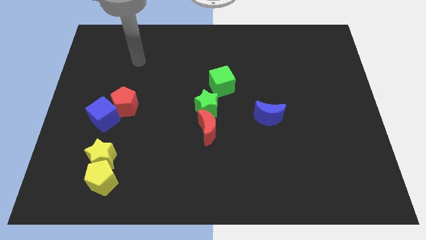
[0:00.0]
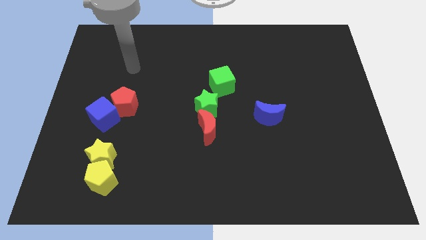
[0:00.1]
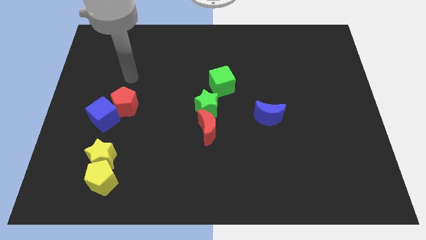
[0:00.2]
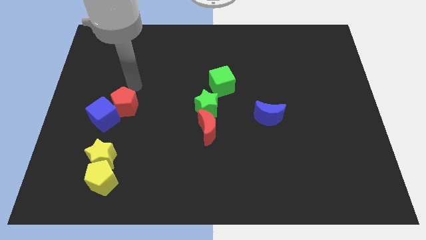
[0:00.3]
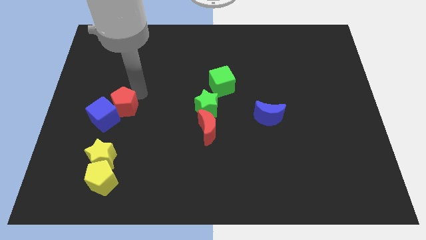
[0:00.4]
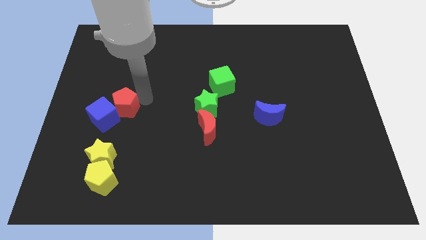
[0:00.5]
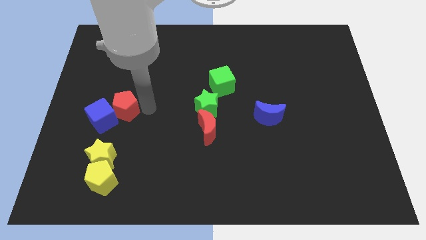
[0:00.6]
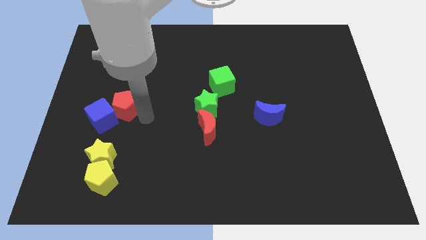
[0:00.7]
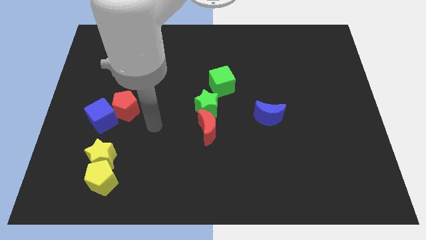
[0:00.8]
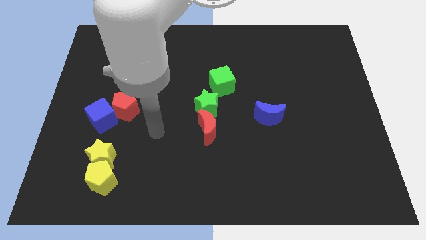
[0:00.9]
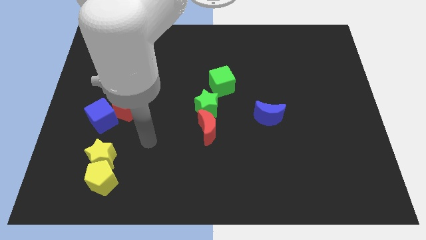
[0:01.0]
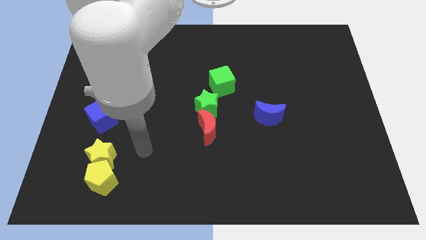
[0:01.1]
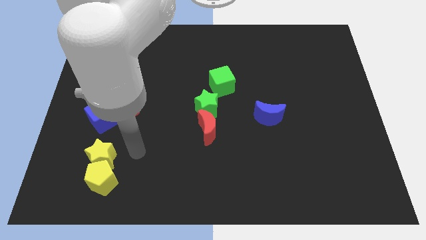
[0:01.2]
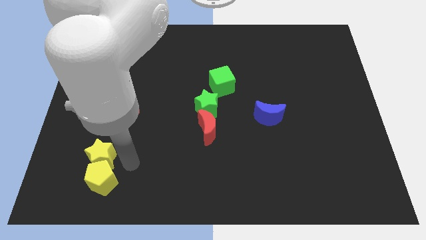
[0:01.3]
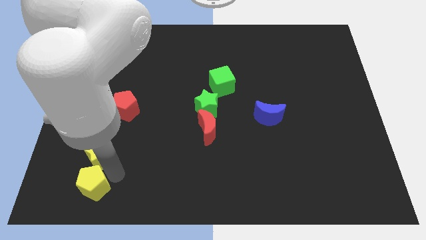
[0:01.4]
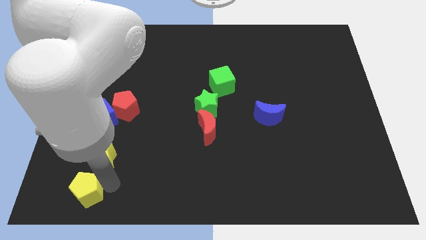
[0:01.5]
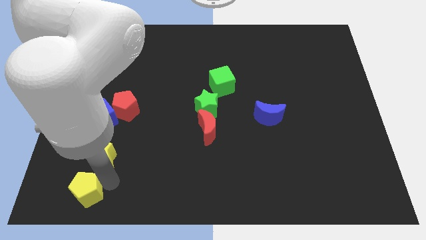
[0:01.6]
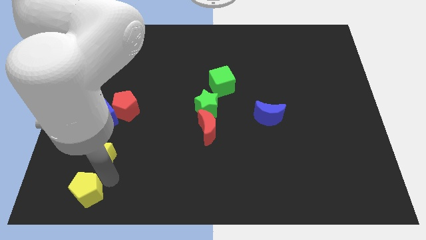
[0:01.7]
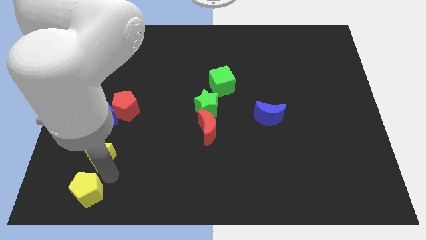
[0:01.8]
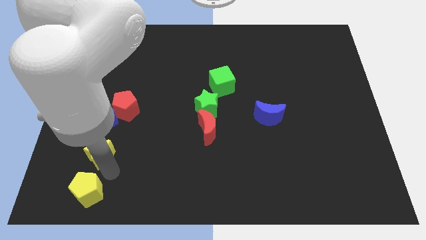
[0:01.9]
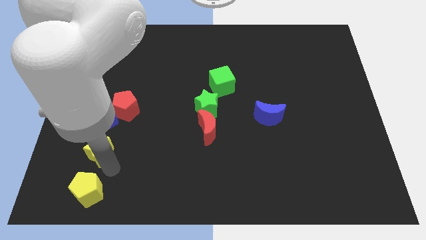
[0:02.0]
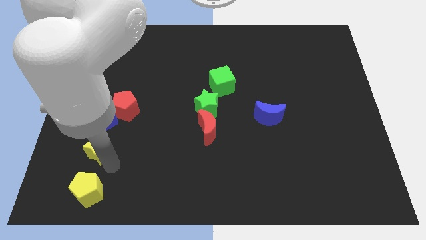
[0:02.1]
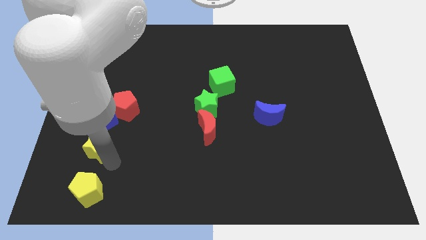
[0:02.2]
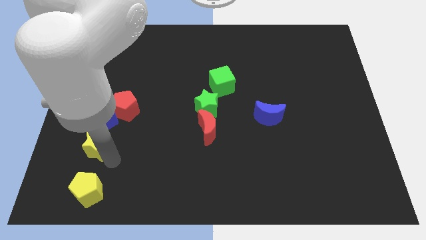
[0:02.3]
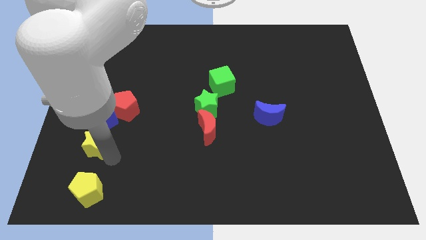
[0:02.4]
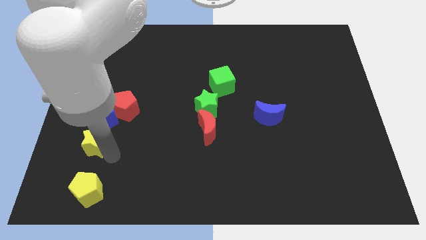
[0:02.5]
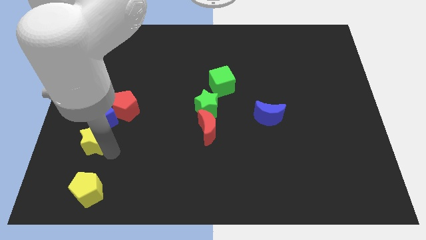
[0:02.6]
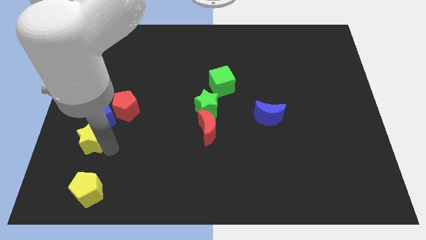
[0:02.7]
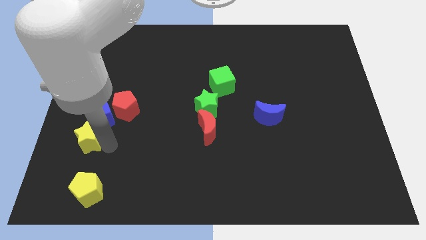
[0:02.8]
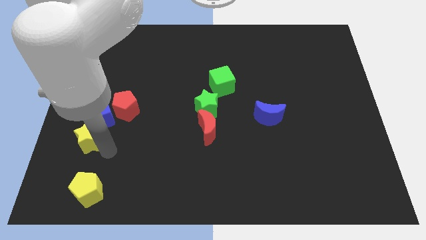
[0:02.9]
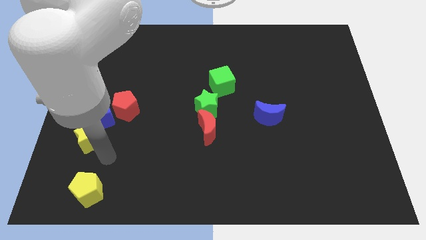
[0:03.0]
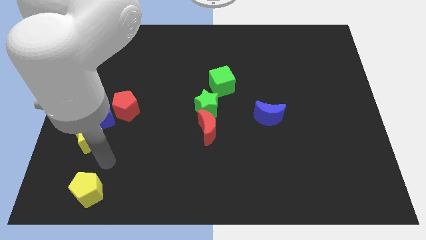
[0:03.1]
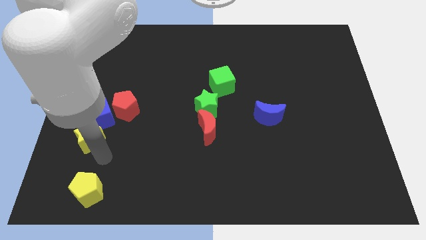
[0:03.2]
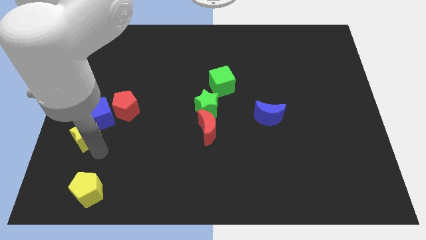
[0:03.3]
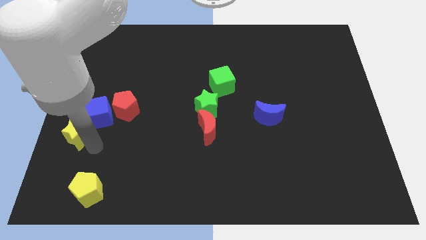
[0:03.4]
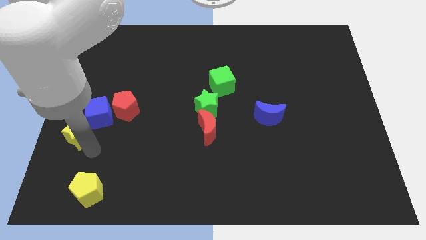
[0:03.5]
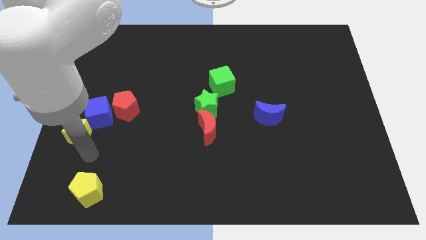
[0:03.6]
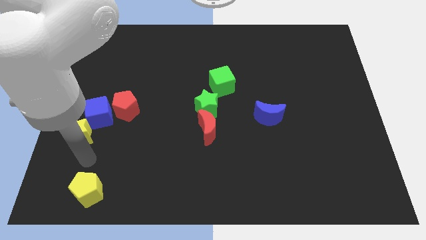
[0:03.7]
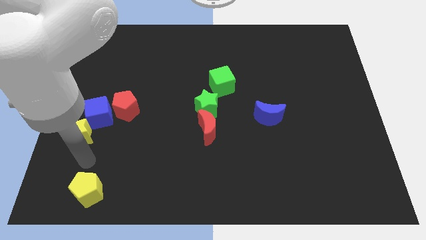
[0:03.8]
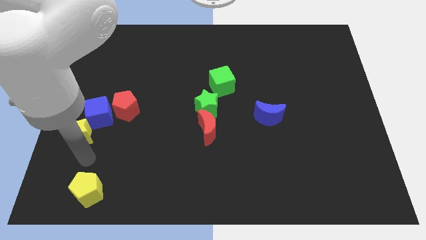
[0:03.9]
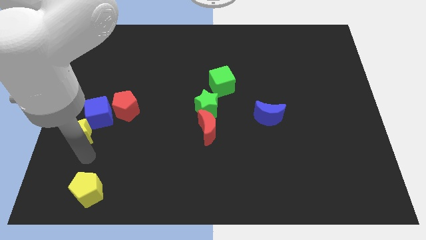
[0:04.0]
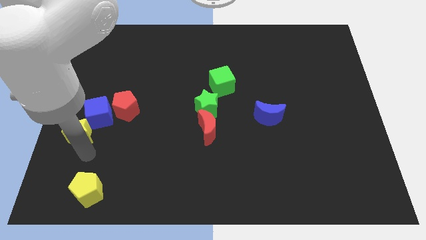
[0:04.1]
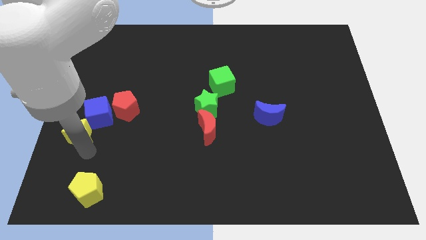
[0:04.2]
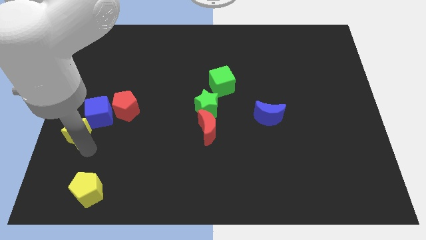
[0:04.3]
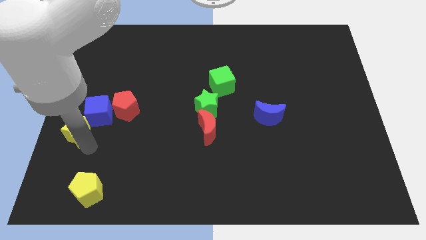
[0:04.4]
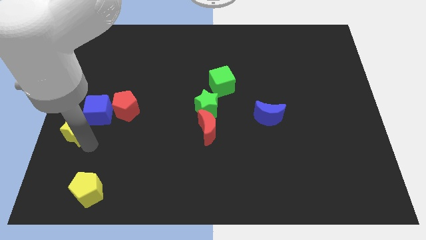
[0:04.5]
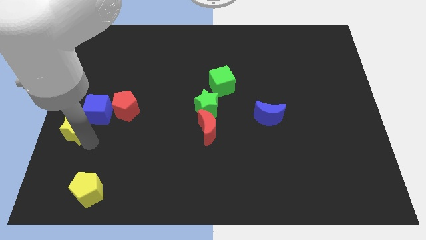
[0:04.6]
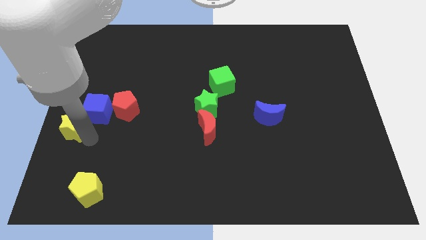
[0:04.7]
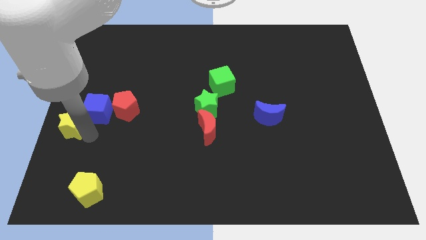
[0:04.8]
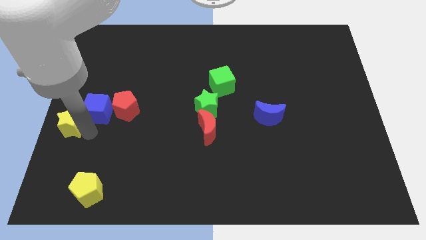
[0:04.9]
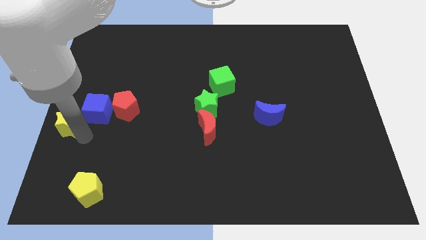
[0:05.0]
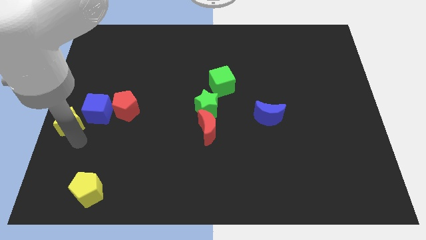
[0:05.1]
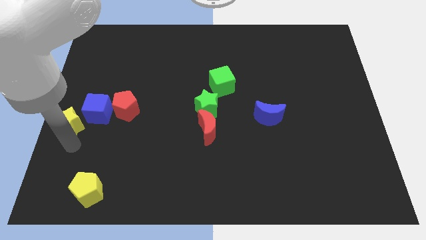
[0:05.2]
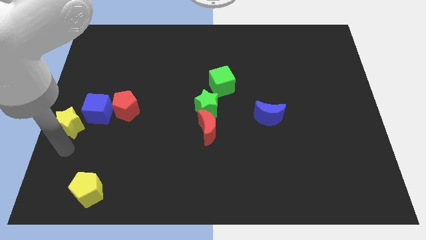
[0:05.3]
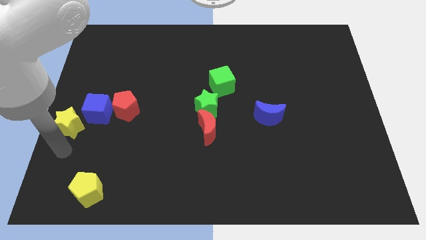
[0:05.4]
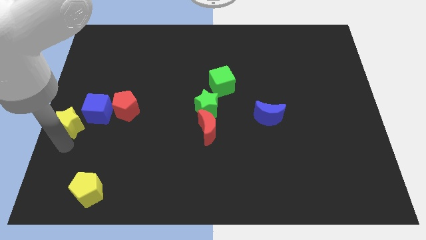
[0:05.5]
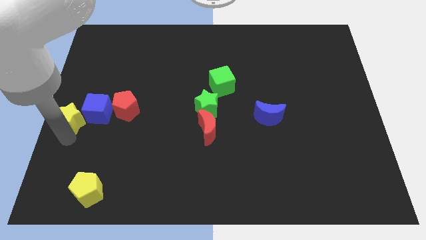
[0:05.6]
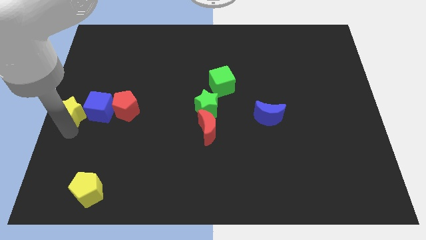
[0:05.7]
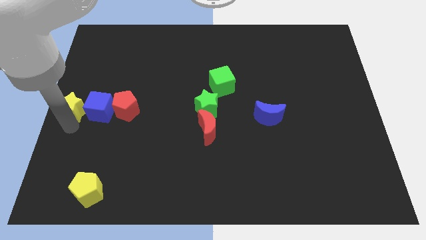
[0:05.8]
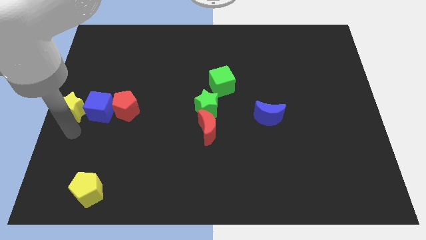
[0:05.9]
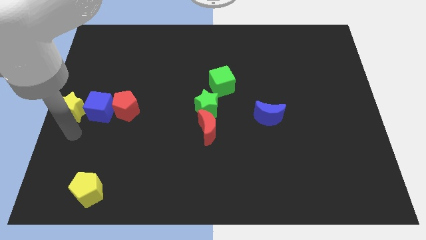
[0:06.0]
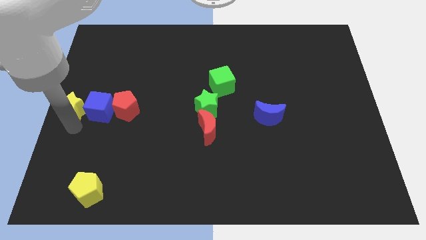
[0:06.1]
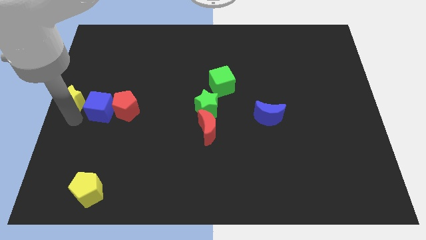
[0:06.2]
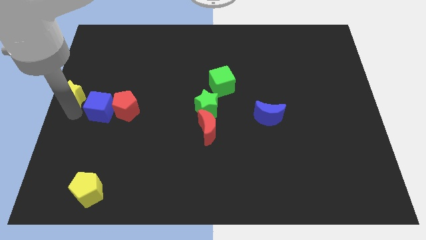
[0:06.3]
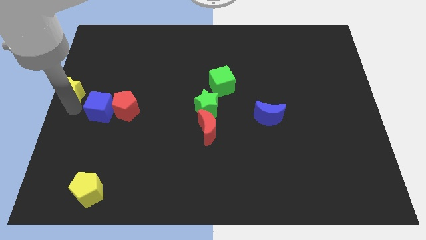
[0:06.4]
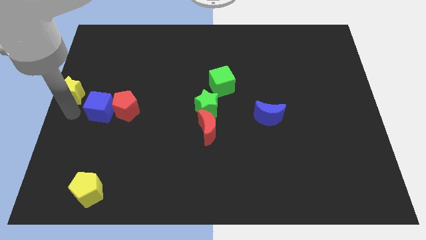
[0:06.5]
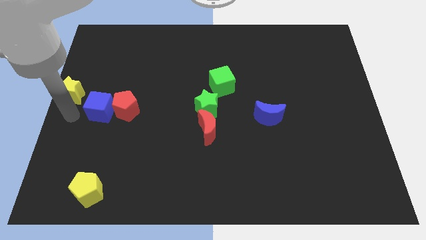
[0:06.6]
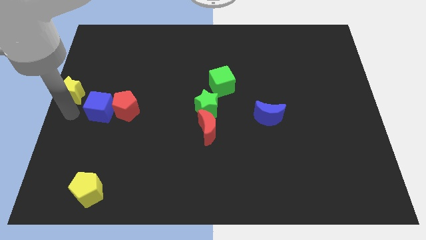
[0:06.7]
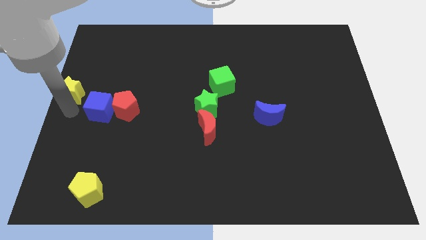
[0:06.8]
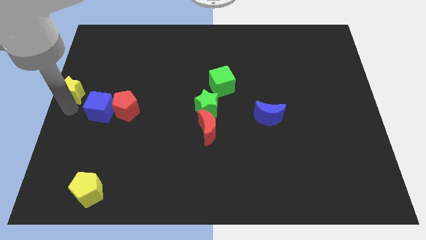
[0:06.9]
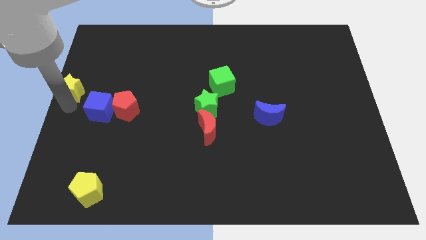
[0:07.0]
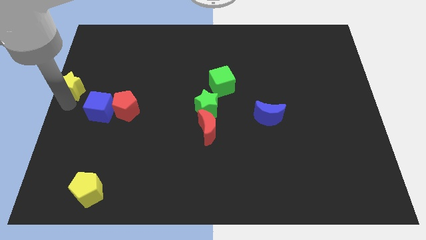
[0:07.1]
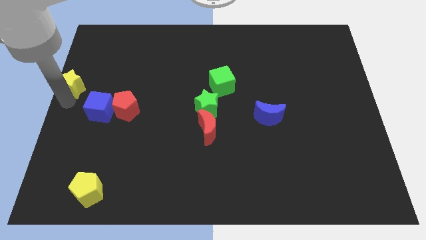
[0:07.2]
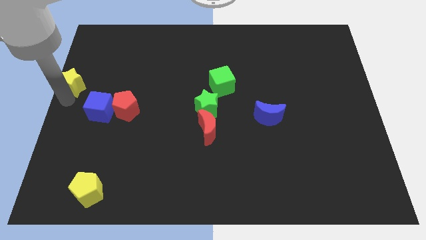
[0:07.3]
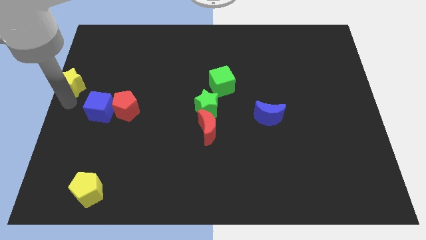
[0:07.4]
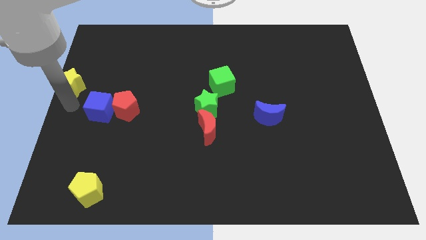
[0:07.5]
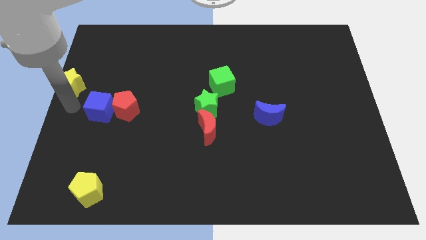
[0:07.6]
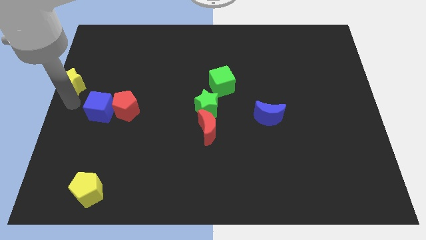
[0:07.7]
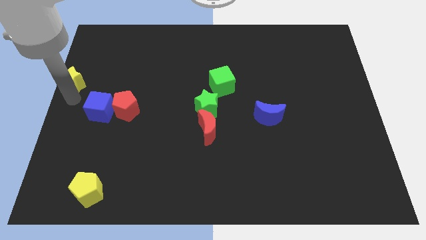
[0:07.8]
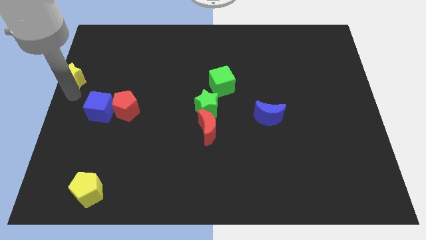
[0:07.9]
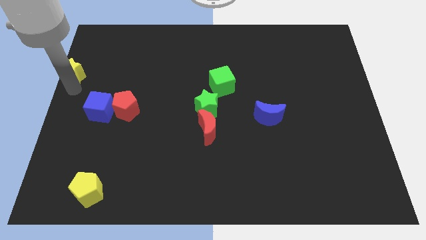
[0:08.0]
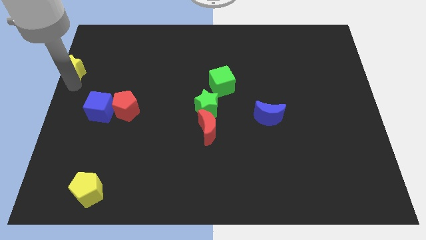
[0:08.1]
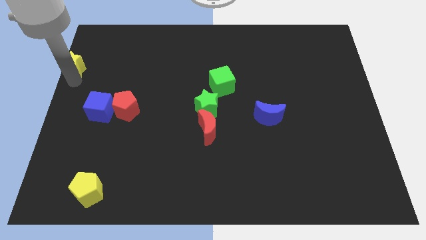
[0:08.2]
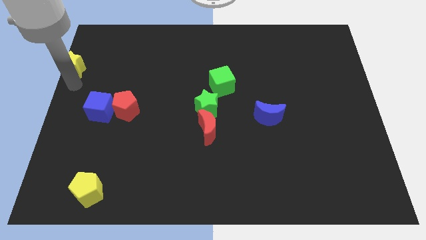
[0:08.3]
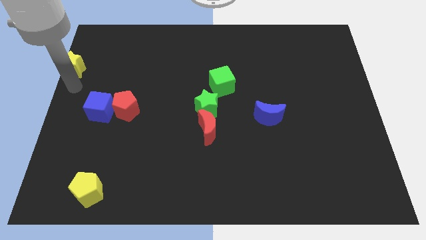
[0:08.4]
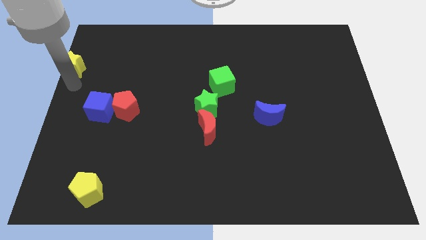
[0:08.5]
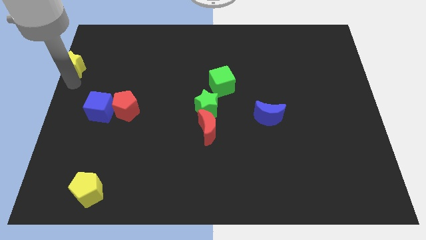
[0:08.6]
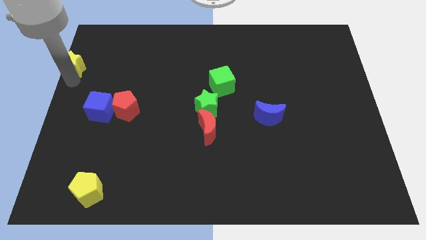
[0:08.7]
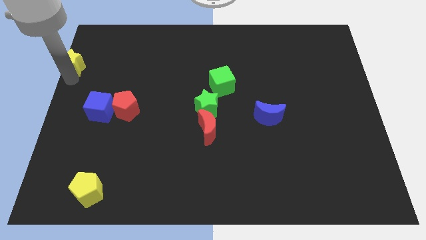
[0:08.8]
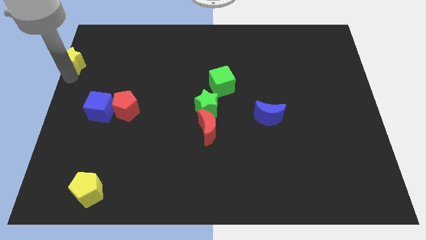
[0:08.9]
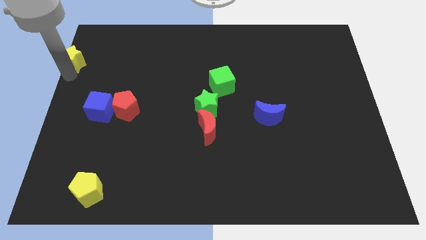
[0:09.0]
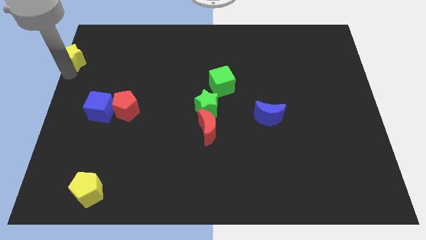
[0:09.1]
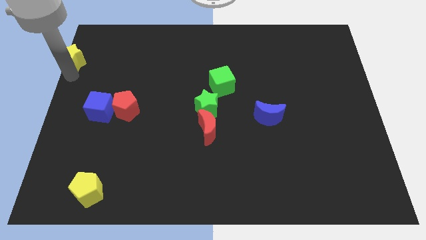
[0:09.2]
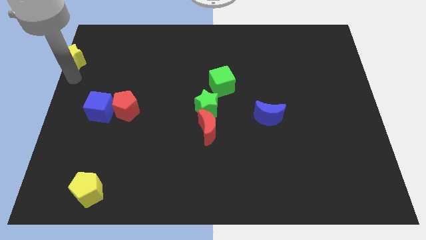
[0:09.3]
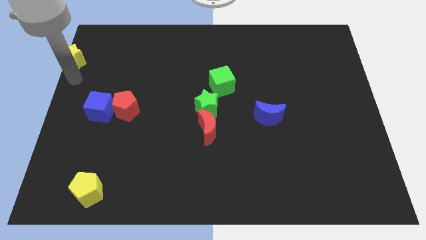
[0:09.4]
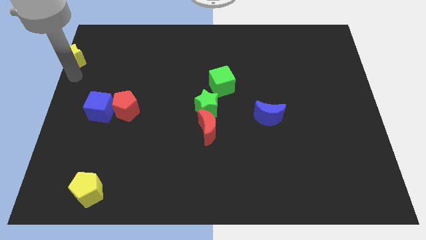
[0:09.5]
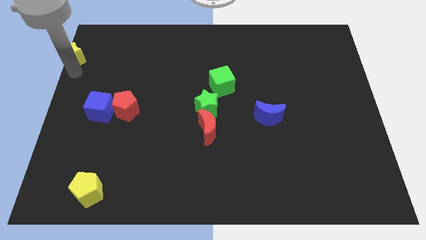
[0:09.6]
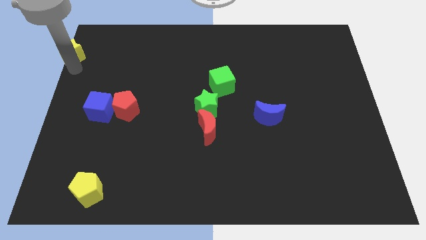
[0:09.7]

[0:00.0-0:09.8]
put the yellow star to the top left
